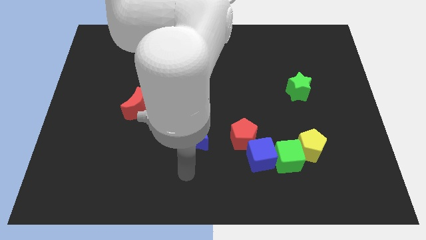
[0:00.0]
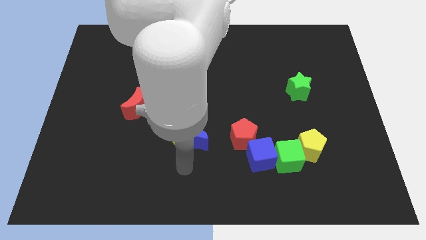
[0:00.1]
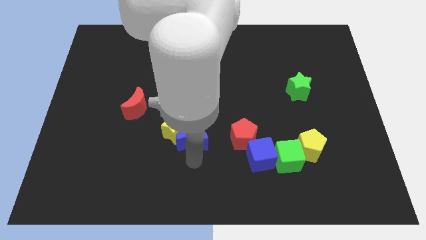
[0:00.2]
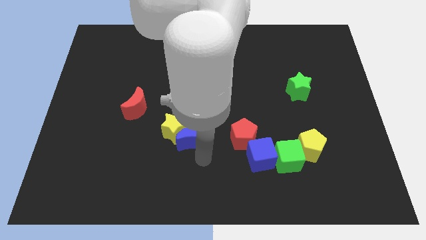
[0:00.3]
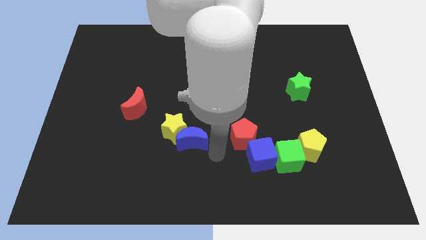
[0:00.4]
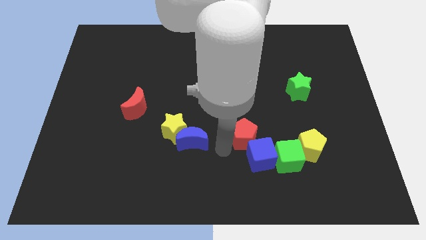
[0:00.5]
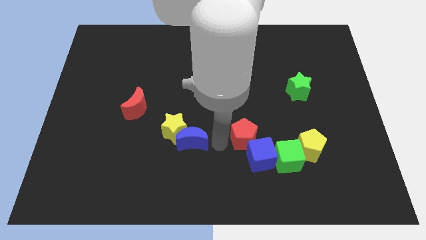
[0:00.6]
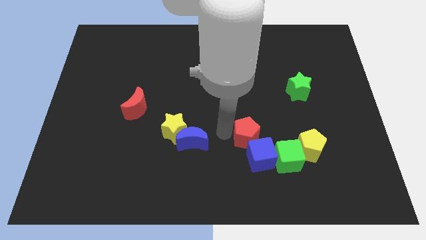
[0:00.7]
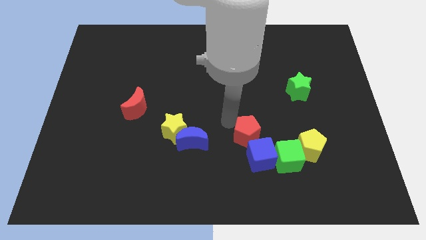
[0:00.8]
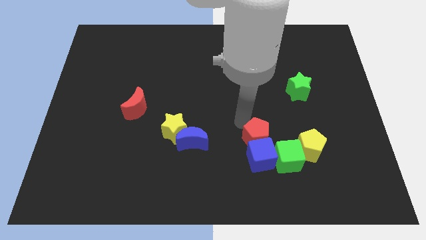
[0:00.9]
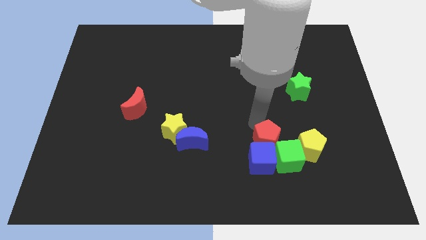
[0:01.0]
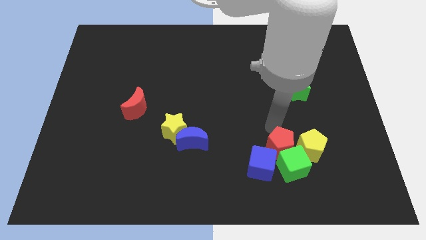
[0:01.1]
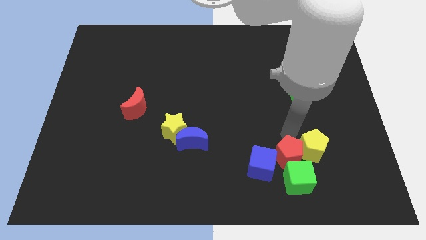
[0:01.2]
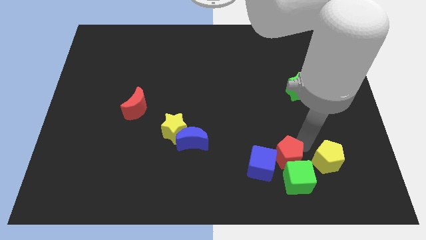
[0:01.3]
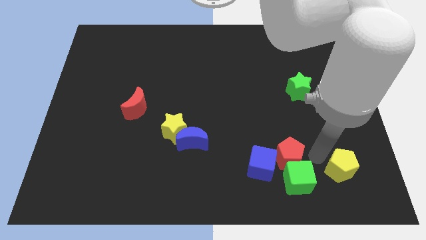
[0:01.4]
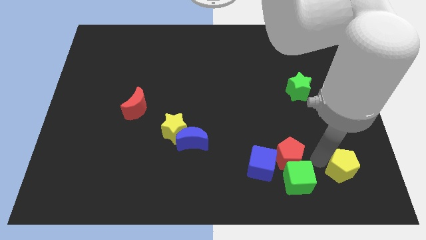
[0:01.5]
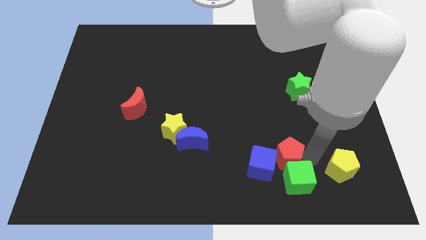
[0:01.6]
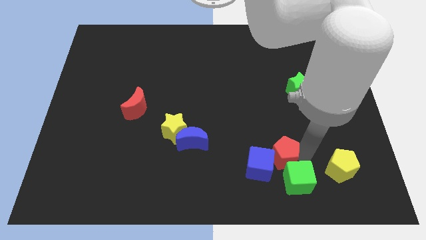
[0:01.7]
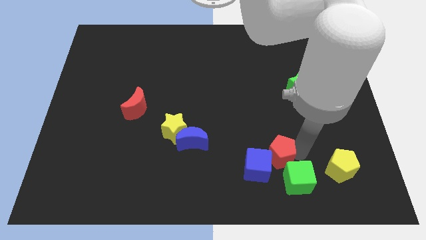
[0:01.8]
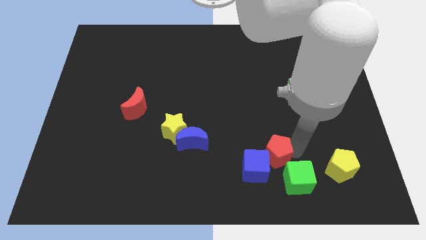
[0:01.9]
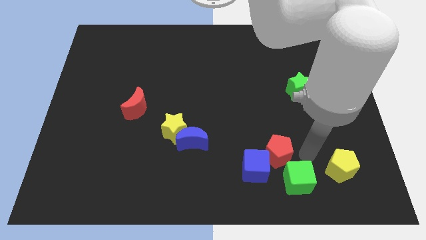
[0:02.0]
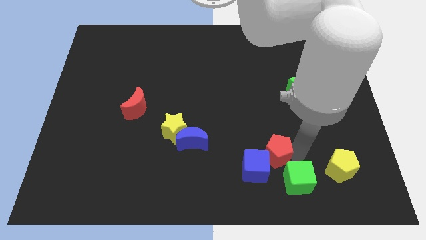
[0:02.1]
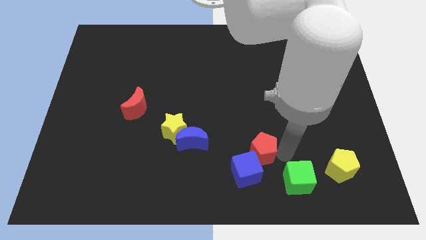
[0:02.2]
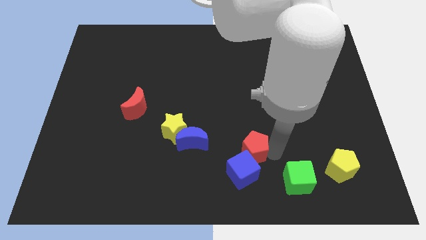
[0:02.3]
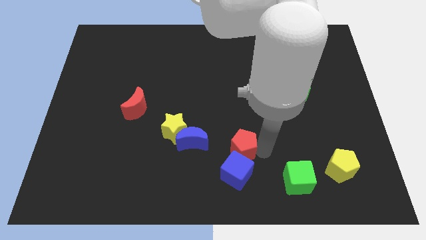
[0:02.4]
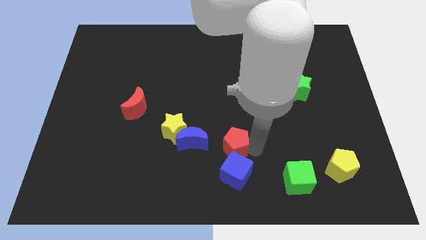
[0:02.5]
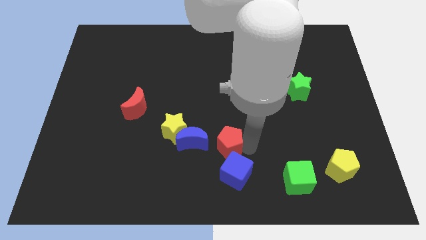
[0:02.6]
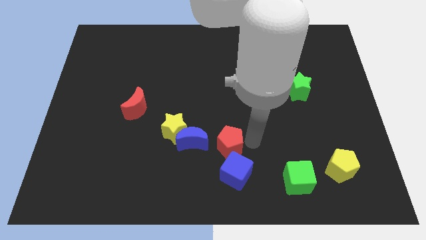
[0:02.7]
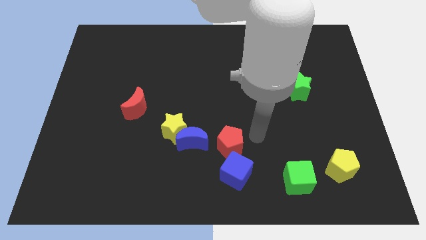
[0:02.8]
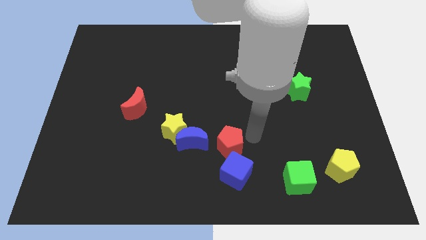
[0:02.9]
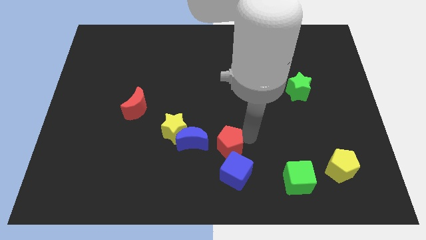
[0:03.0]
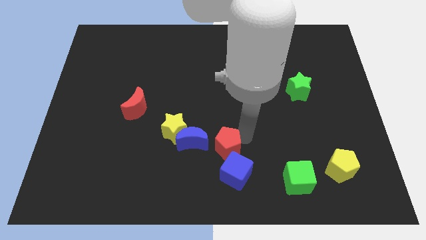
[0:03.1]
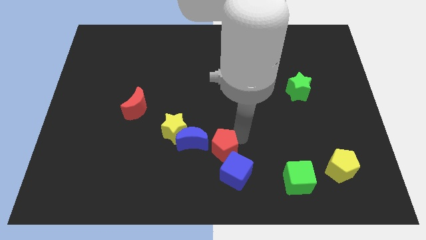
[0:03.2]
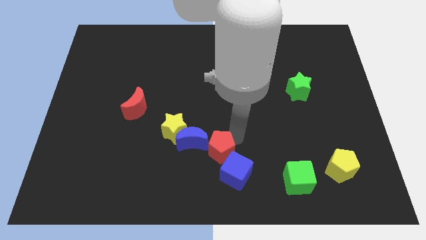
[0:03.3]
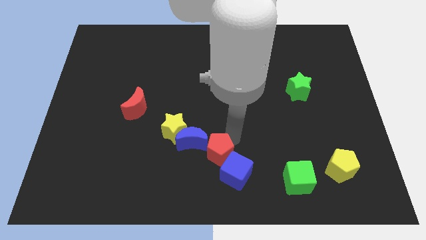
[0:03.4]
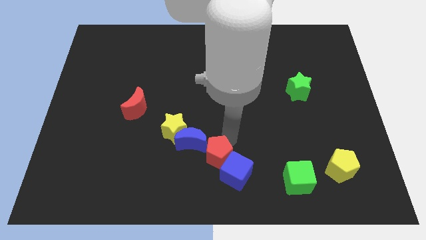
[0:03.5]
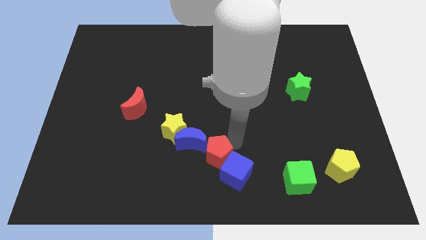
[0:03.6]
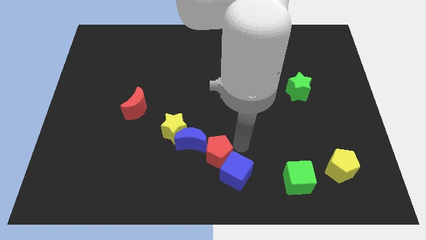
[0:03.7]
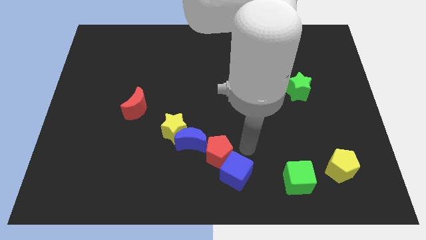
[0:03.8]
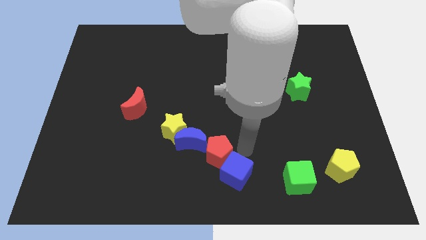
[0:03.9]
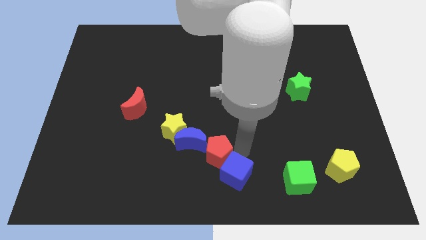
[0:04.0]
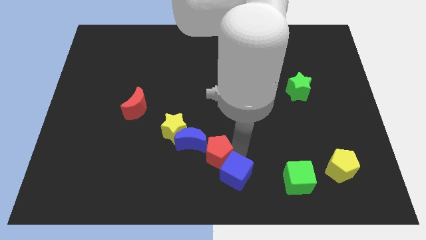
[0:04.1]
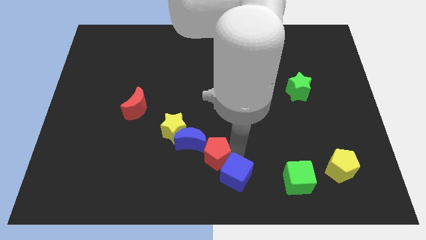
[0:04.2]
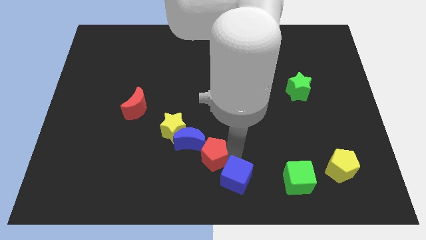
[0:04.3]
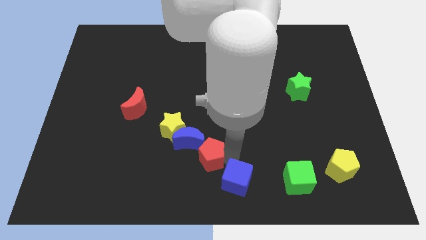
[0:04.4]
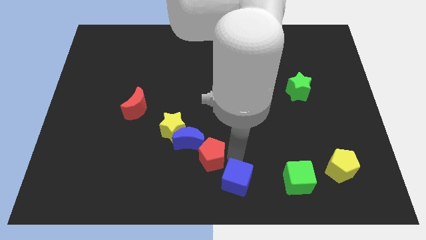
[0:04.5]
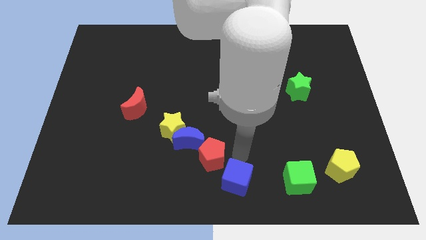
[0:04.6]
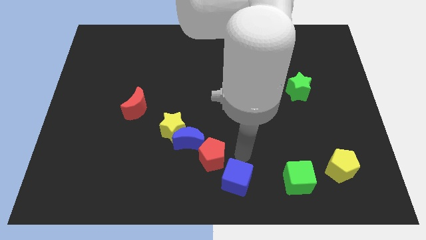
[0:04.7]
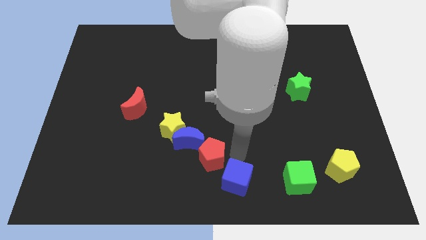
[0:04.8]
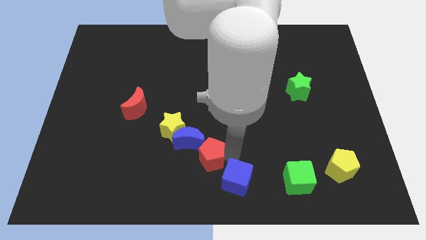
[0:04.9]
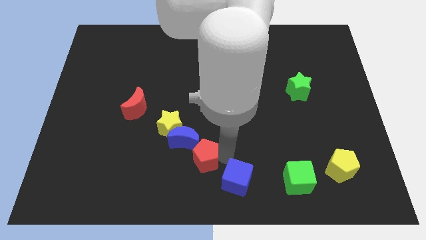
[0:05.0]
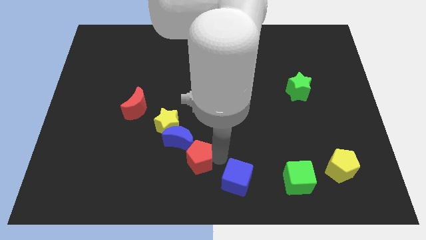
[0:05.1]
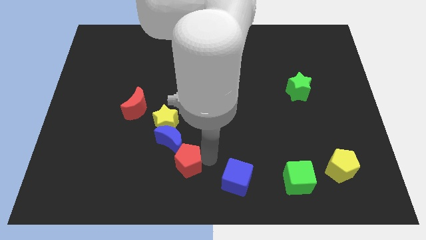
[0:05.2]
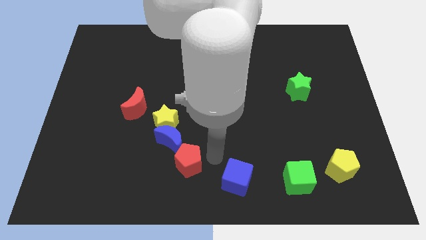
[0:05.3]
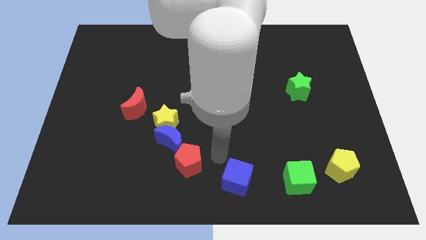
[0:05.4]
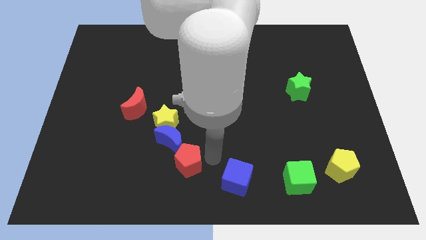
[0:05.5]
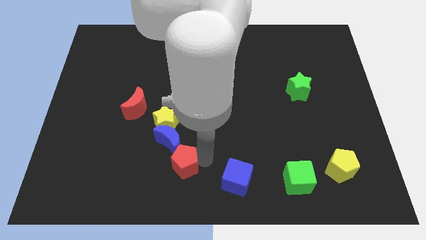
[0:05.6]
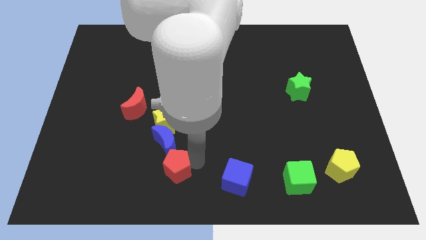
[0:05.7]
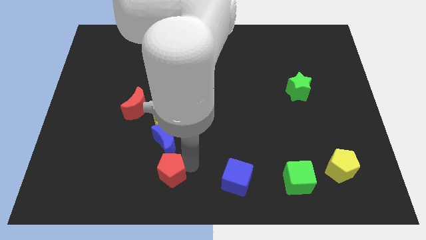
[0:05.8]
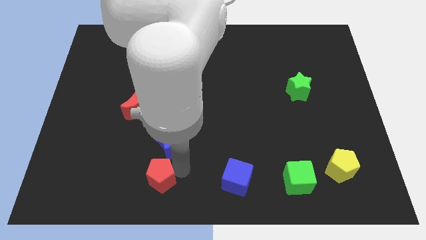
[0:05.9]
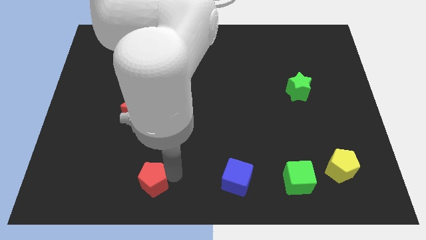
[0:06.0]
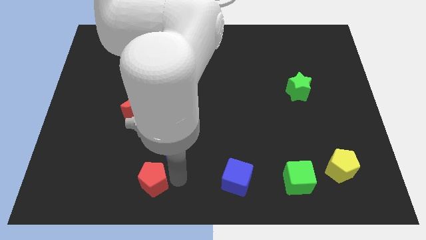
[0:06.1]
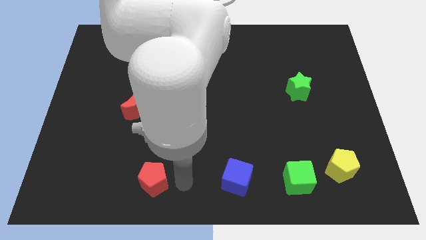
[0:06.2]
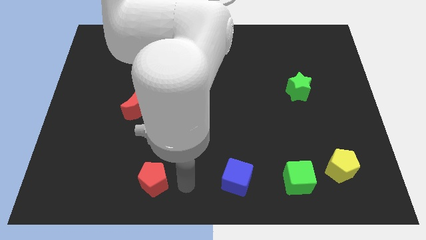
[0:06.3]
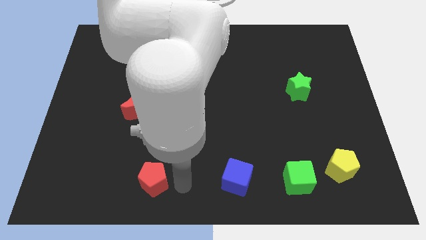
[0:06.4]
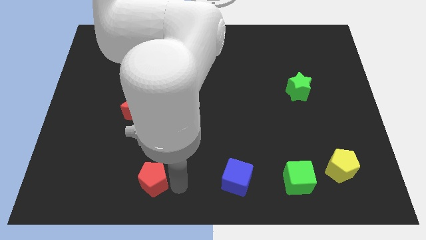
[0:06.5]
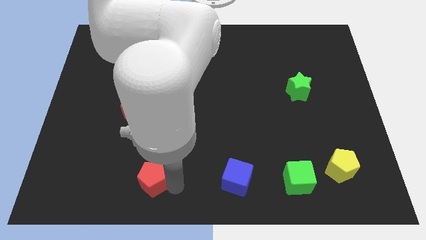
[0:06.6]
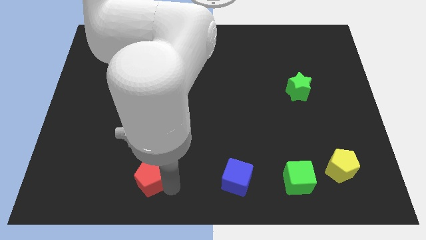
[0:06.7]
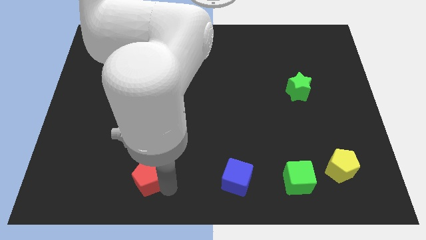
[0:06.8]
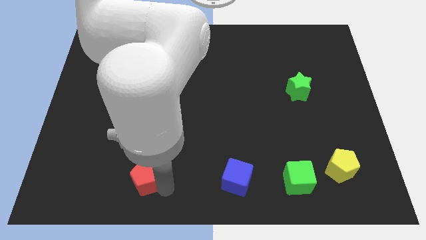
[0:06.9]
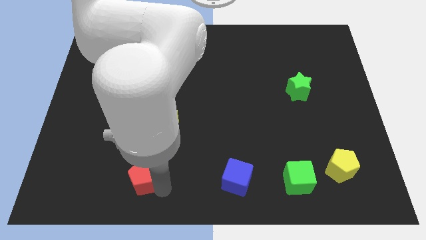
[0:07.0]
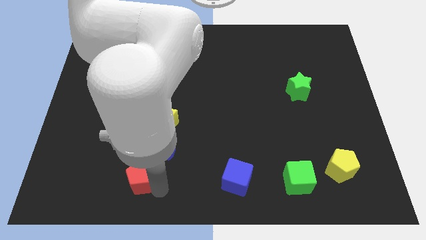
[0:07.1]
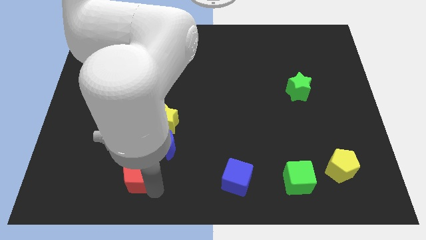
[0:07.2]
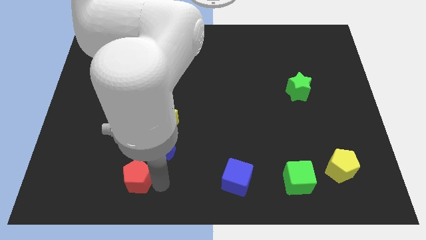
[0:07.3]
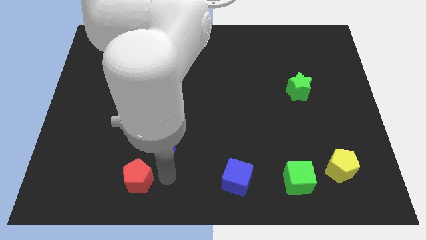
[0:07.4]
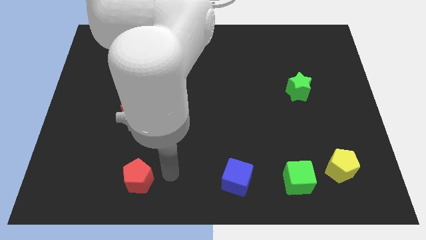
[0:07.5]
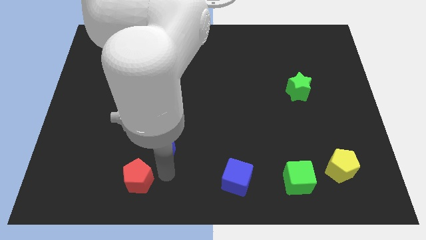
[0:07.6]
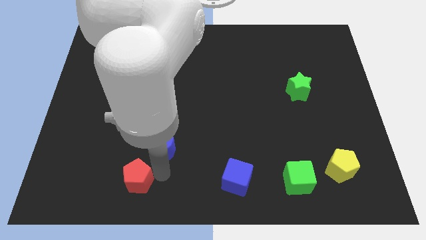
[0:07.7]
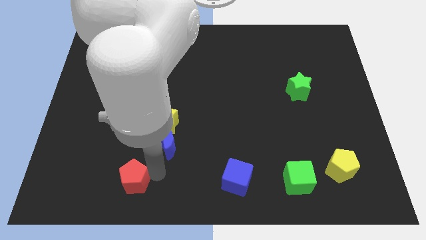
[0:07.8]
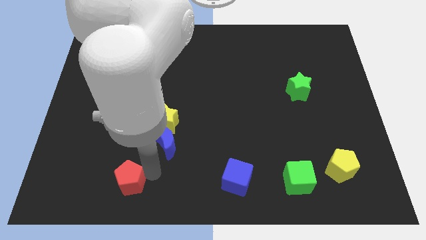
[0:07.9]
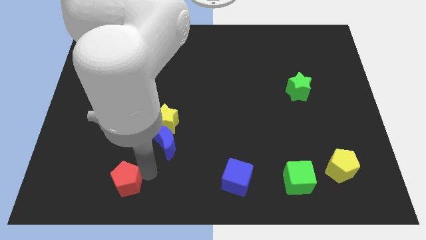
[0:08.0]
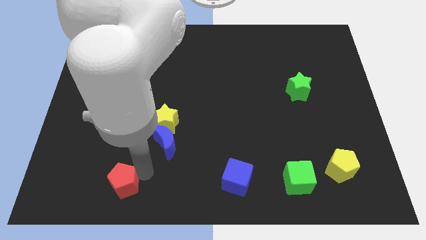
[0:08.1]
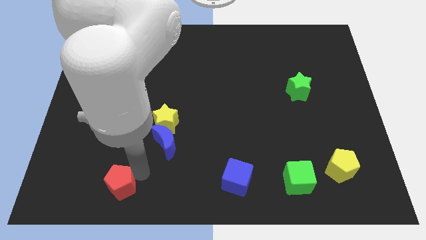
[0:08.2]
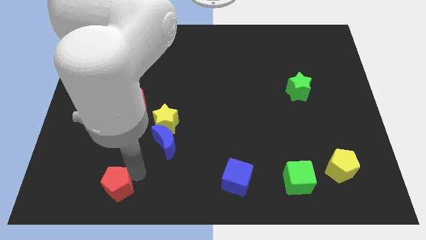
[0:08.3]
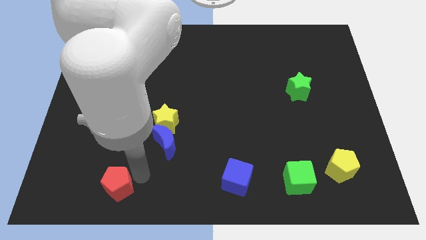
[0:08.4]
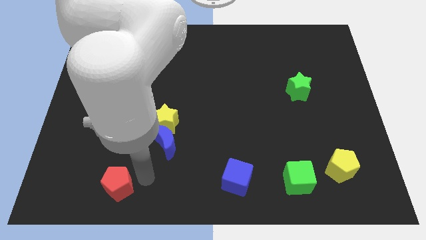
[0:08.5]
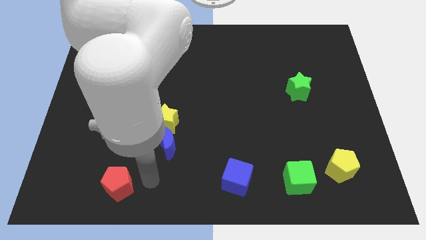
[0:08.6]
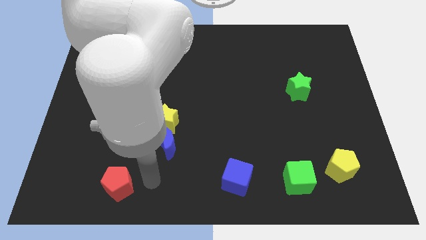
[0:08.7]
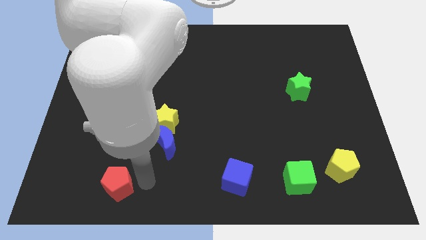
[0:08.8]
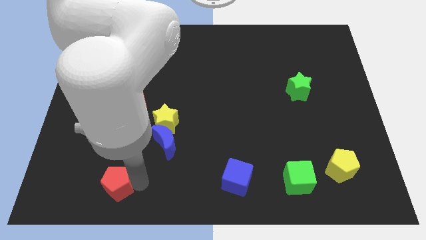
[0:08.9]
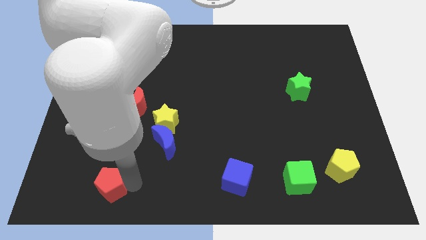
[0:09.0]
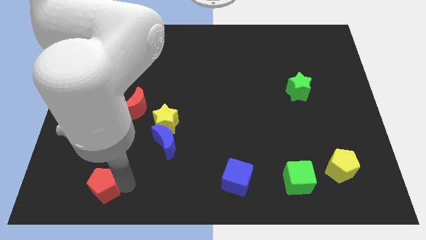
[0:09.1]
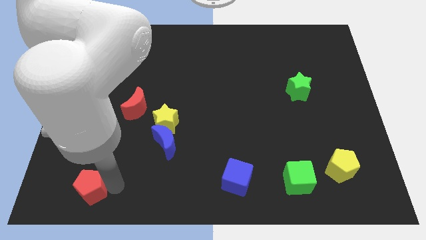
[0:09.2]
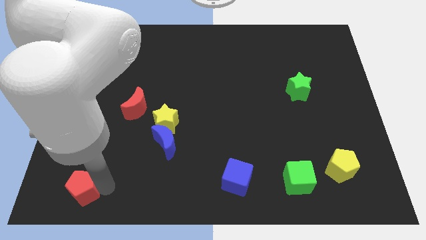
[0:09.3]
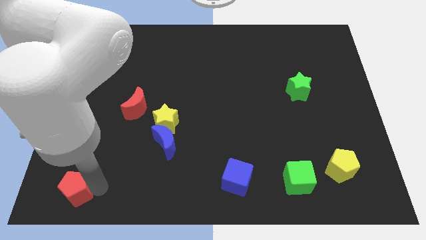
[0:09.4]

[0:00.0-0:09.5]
slide the red pentagon to the bottom left corner
